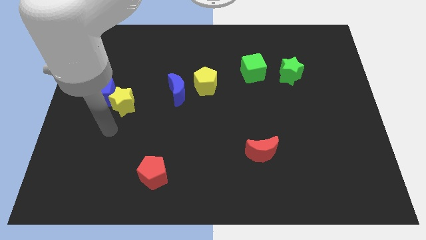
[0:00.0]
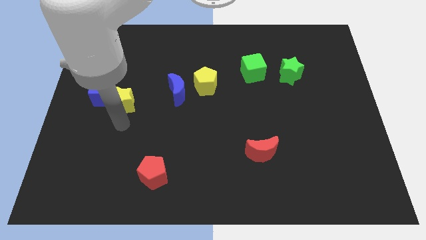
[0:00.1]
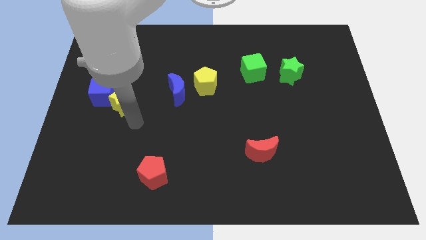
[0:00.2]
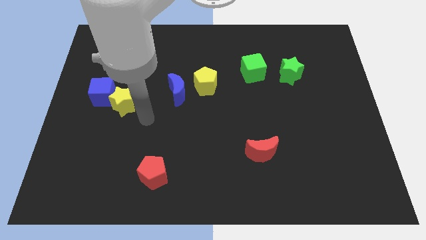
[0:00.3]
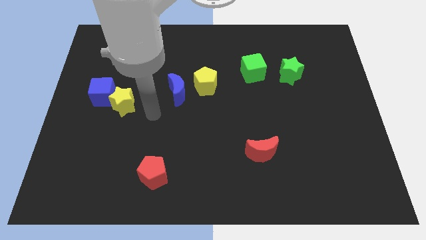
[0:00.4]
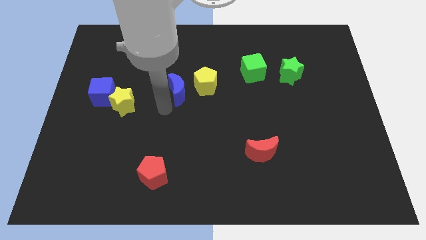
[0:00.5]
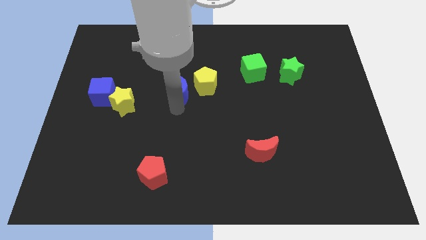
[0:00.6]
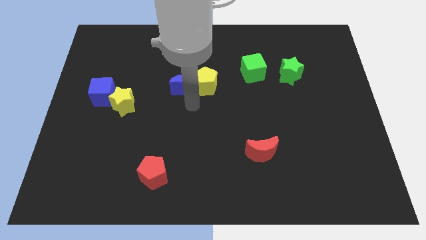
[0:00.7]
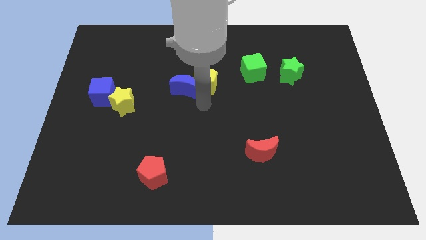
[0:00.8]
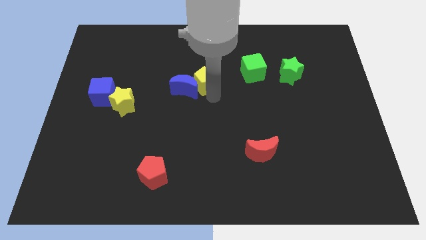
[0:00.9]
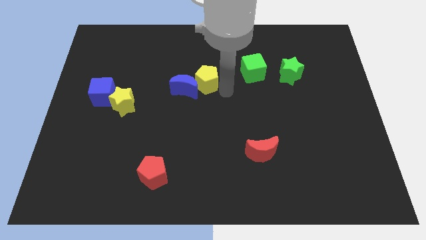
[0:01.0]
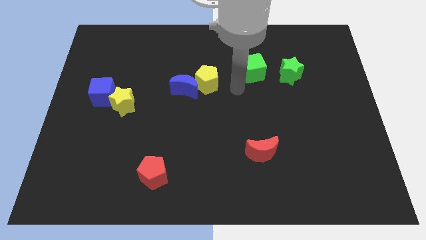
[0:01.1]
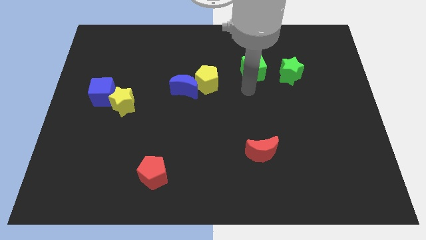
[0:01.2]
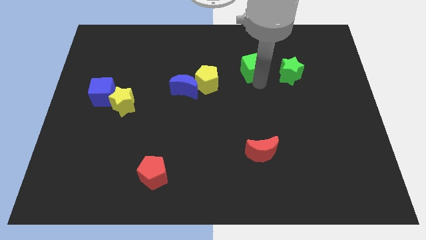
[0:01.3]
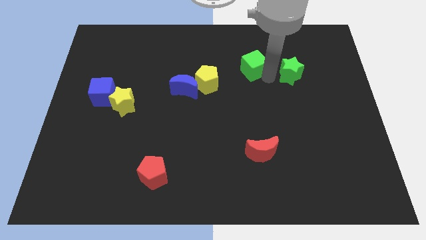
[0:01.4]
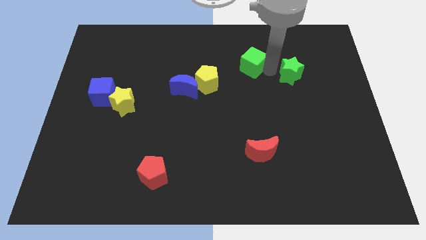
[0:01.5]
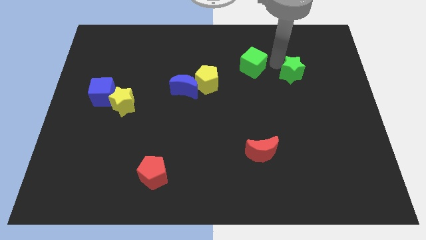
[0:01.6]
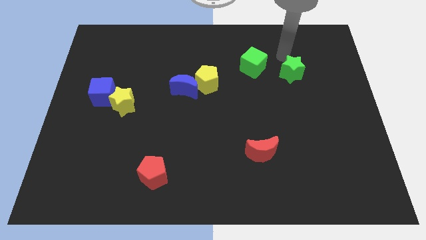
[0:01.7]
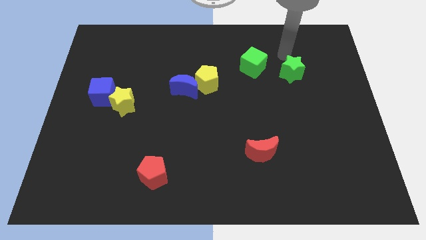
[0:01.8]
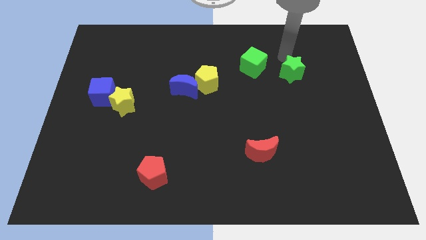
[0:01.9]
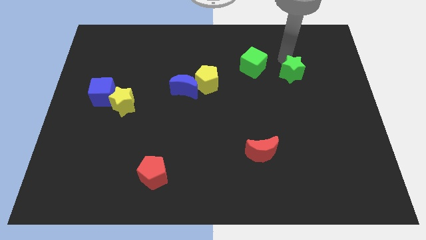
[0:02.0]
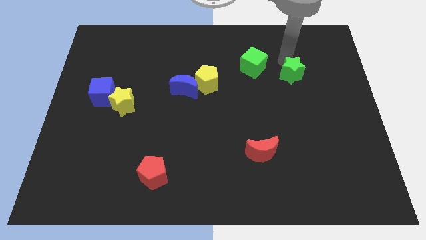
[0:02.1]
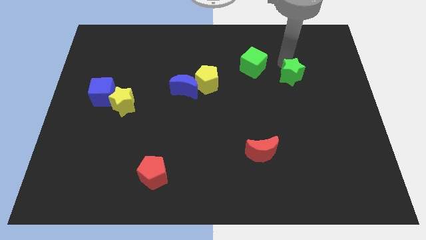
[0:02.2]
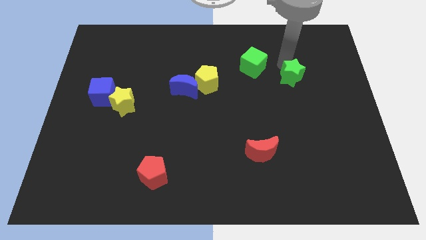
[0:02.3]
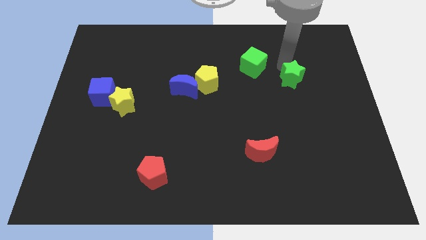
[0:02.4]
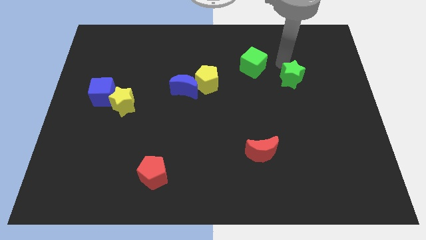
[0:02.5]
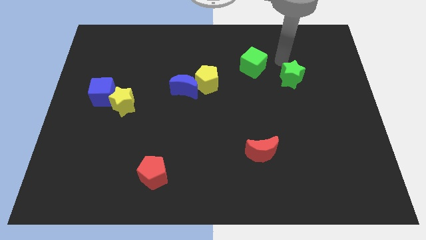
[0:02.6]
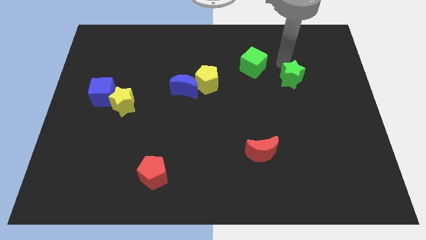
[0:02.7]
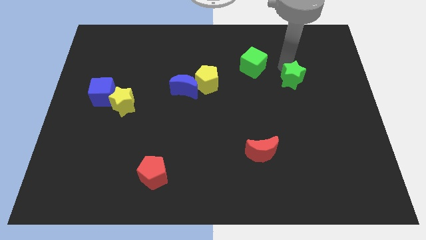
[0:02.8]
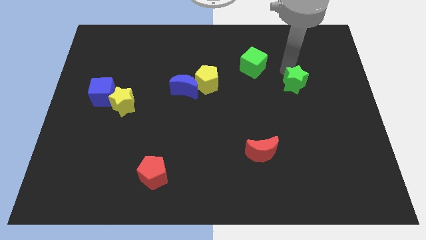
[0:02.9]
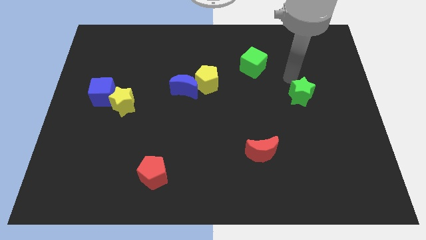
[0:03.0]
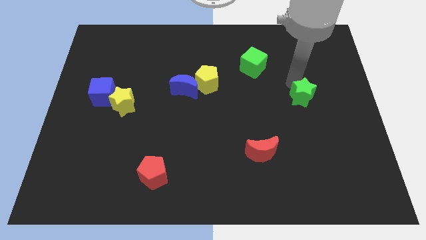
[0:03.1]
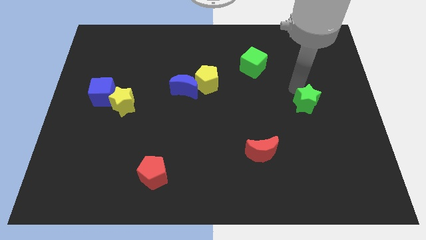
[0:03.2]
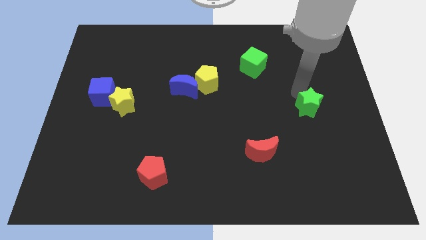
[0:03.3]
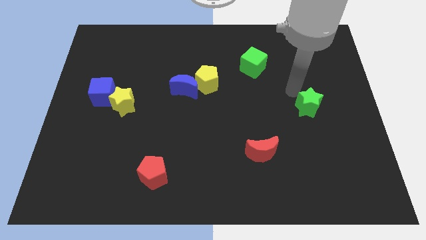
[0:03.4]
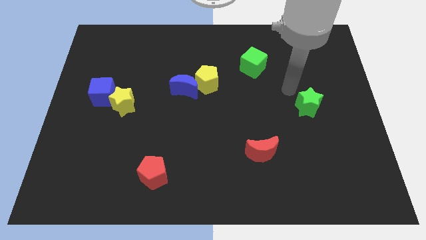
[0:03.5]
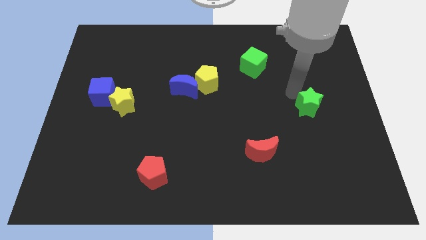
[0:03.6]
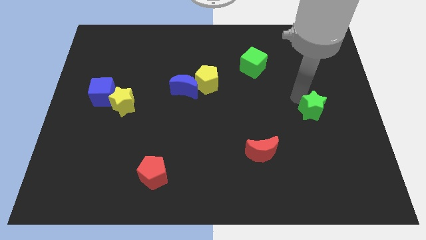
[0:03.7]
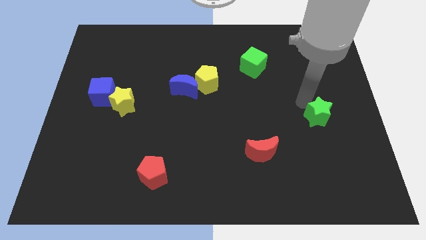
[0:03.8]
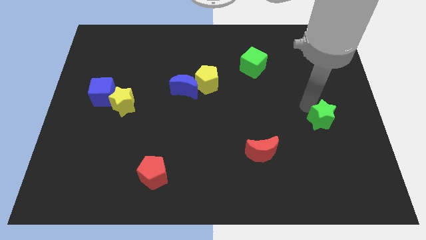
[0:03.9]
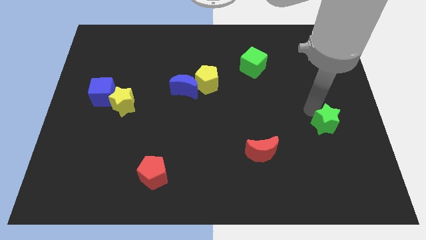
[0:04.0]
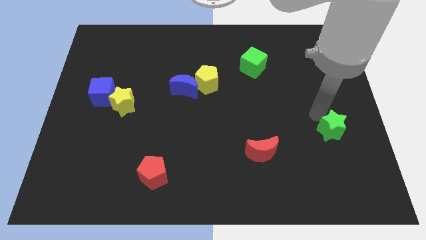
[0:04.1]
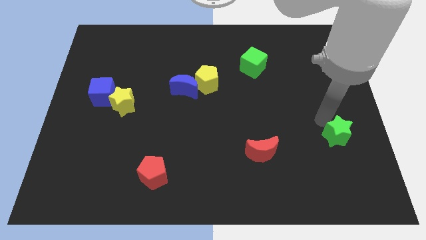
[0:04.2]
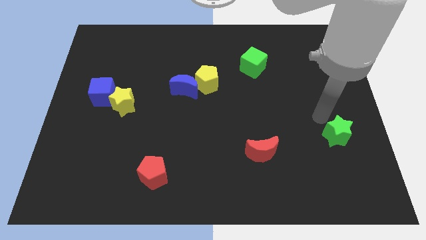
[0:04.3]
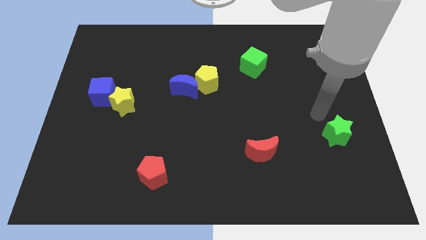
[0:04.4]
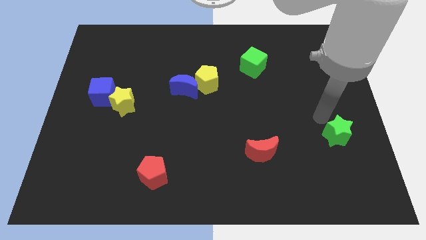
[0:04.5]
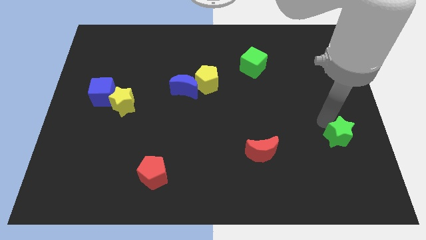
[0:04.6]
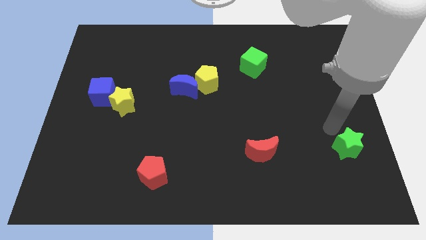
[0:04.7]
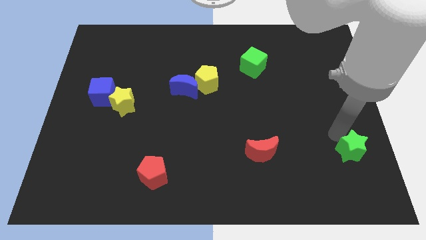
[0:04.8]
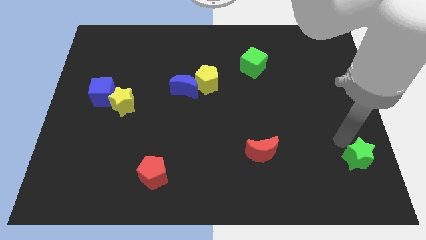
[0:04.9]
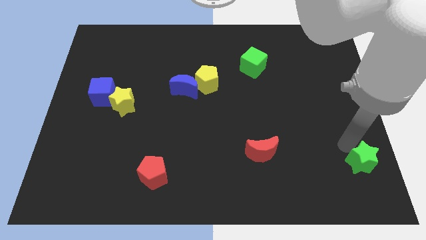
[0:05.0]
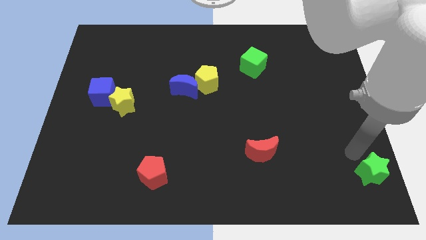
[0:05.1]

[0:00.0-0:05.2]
push the green star to the bottom right

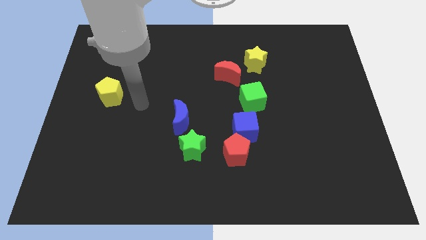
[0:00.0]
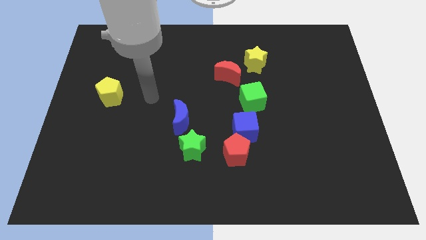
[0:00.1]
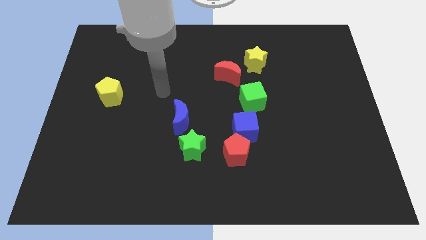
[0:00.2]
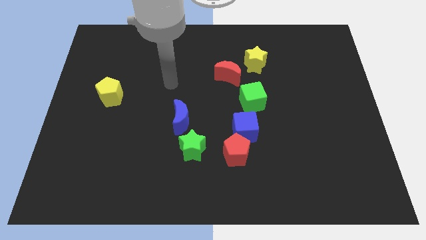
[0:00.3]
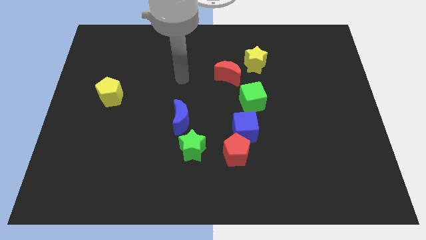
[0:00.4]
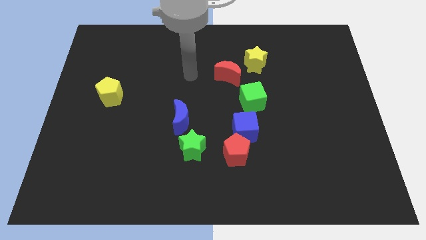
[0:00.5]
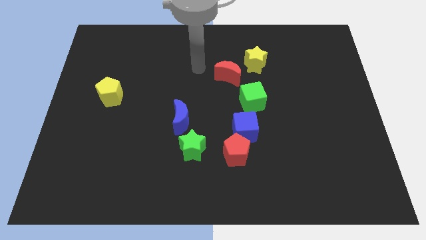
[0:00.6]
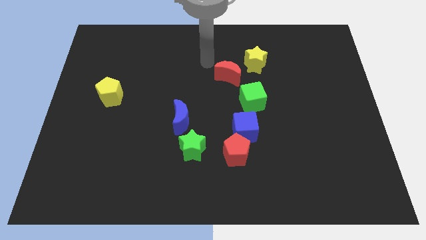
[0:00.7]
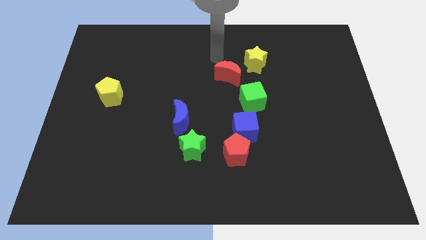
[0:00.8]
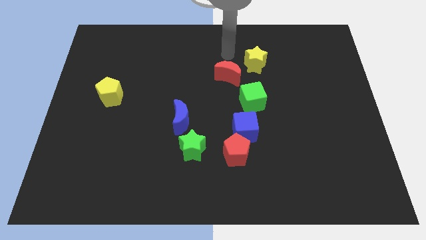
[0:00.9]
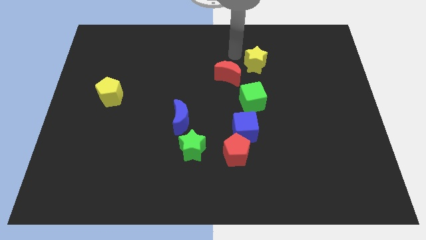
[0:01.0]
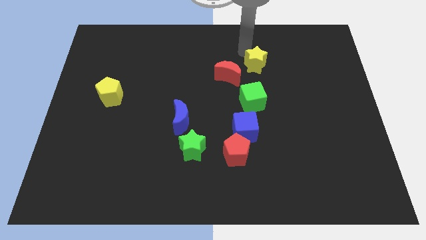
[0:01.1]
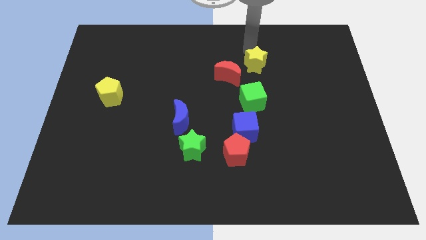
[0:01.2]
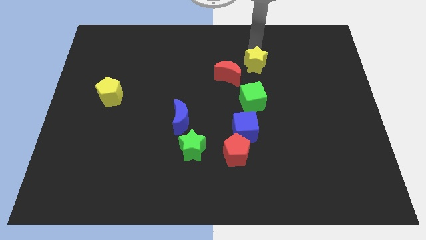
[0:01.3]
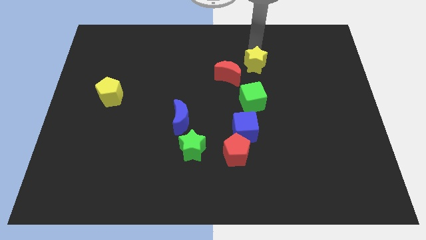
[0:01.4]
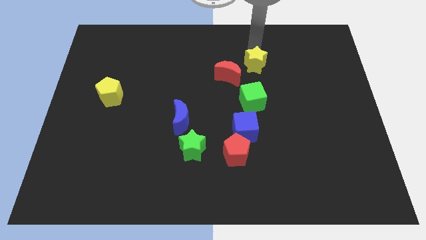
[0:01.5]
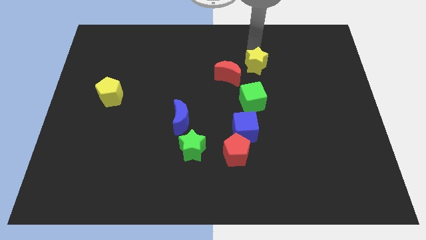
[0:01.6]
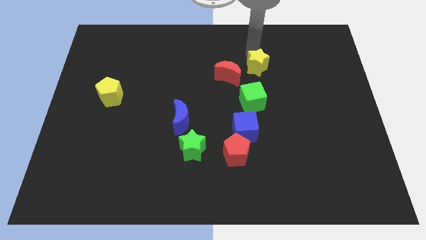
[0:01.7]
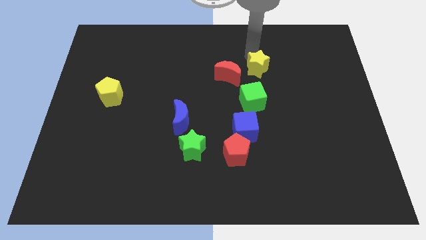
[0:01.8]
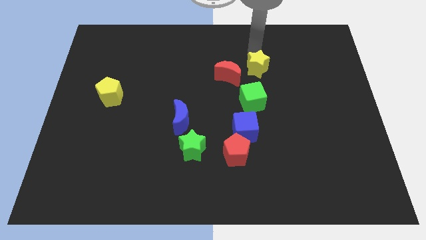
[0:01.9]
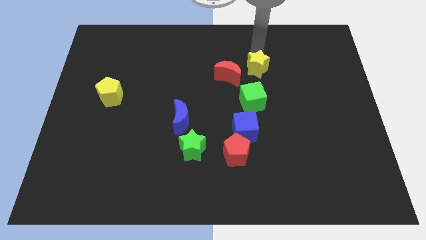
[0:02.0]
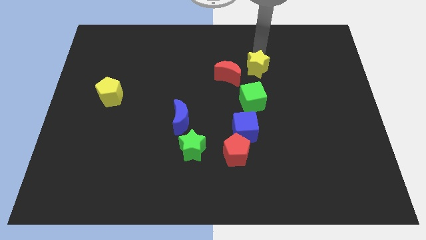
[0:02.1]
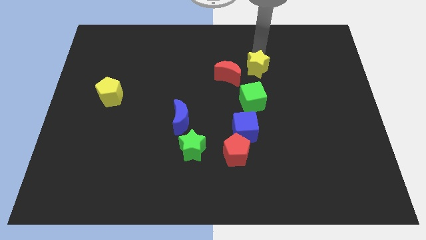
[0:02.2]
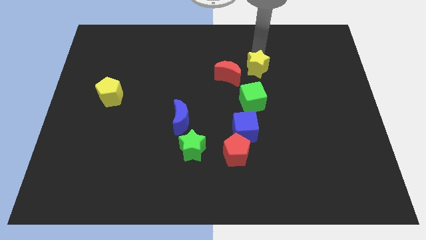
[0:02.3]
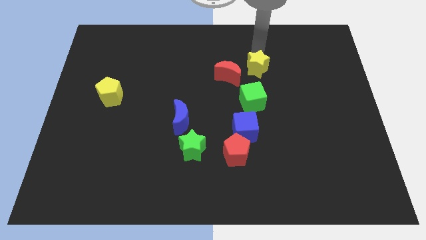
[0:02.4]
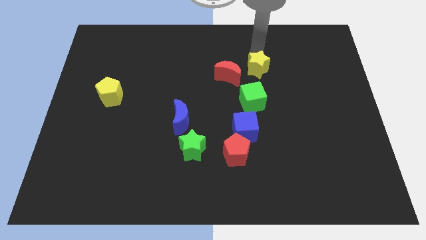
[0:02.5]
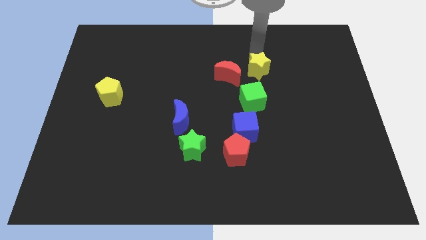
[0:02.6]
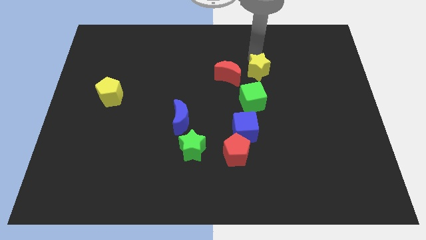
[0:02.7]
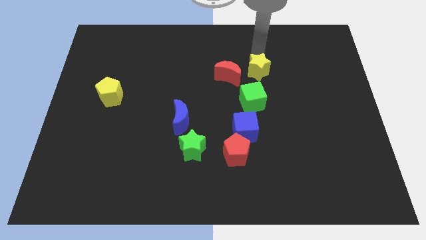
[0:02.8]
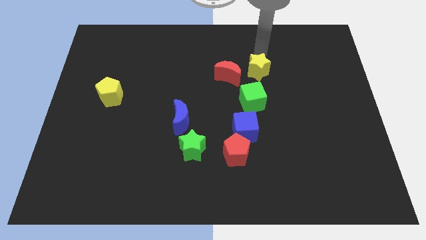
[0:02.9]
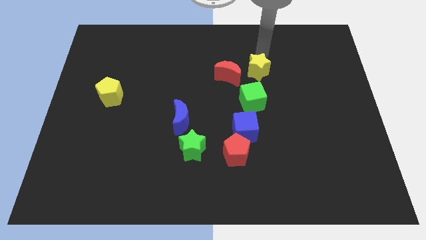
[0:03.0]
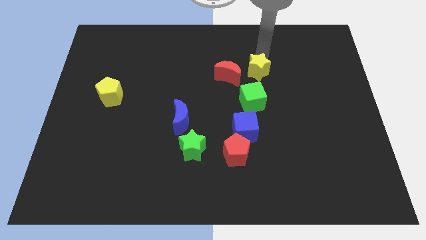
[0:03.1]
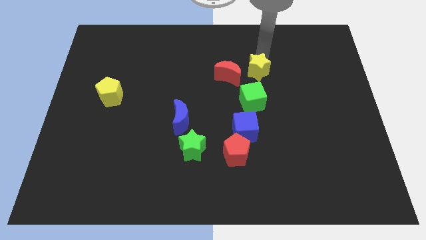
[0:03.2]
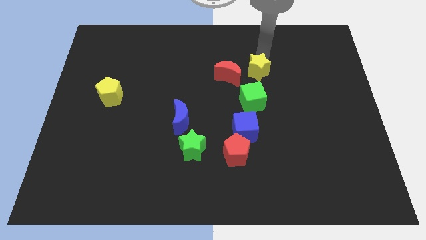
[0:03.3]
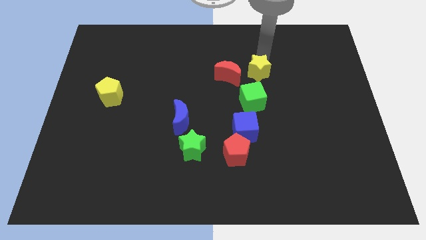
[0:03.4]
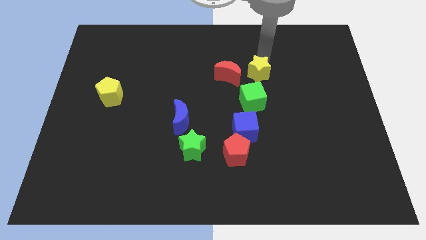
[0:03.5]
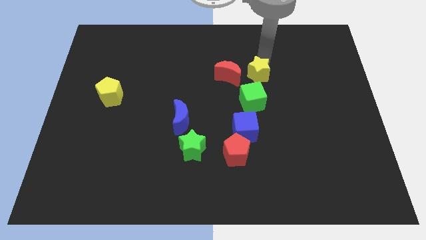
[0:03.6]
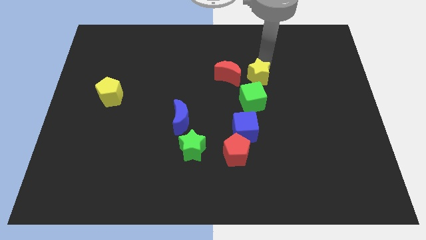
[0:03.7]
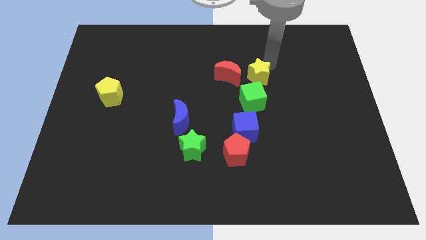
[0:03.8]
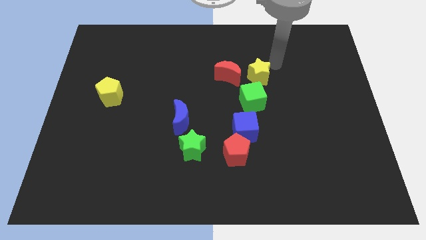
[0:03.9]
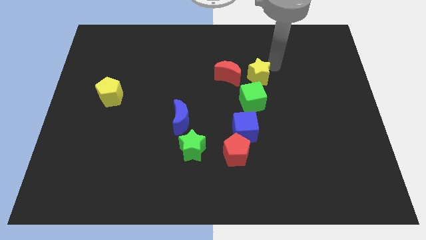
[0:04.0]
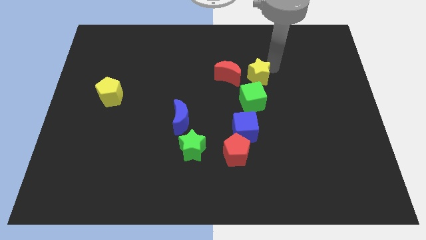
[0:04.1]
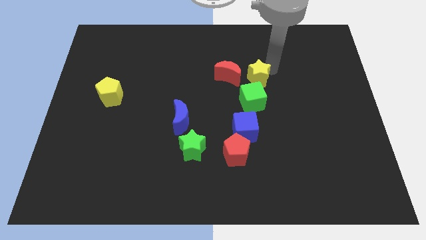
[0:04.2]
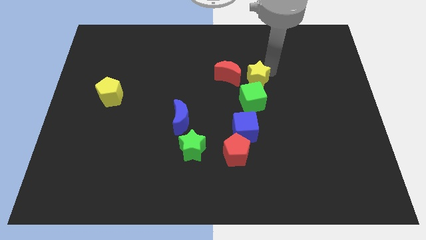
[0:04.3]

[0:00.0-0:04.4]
move the yellow star to the middle
